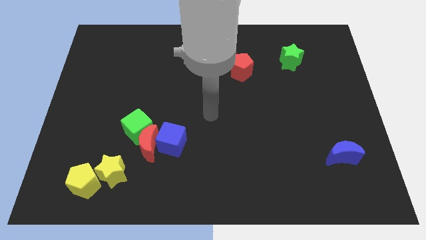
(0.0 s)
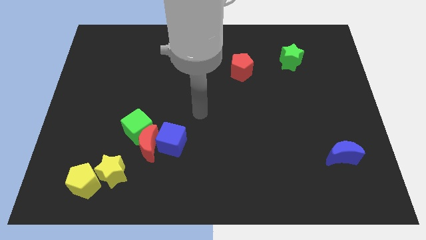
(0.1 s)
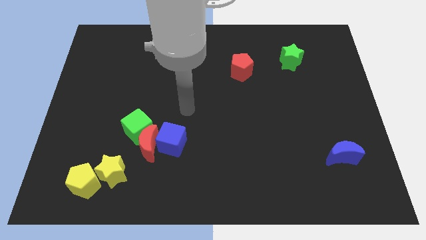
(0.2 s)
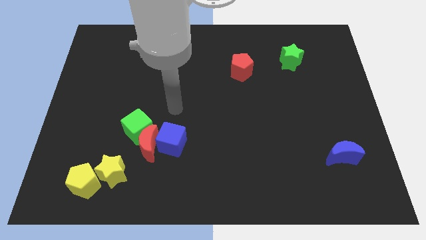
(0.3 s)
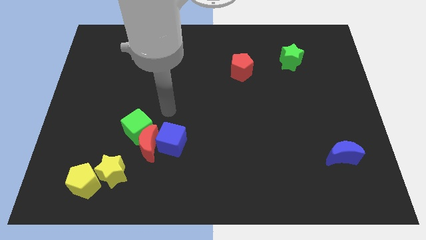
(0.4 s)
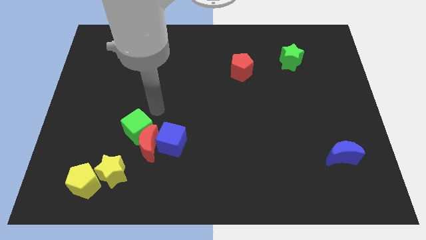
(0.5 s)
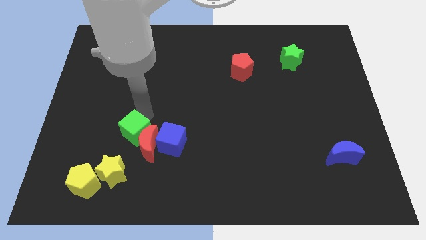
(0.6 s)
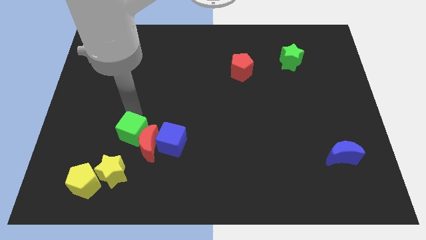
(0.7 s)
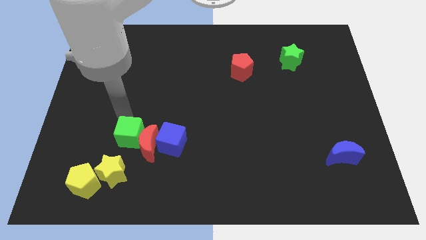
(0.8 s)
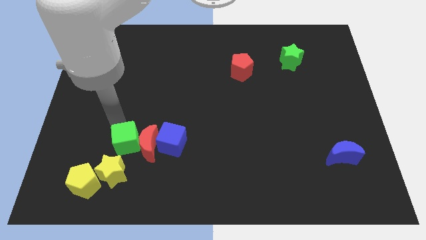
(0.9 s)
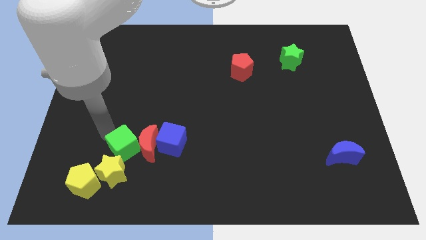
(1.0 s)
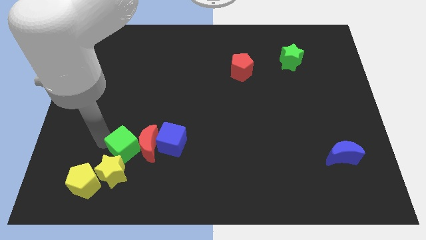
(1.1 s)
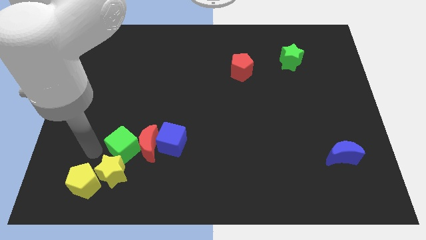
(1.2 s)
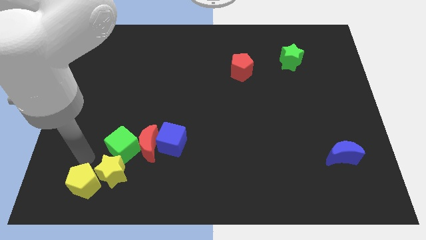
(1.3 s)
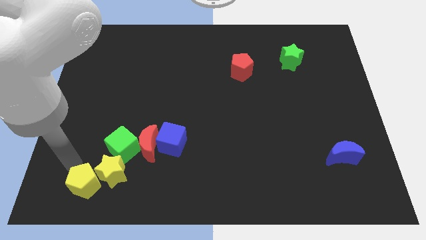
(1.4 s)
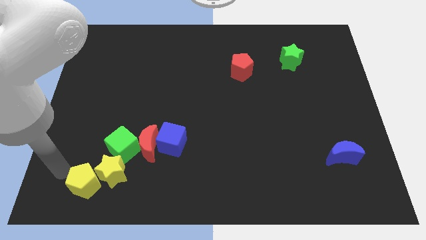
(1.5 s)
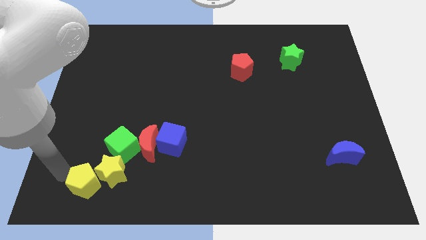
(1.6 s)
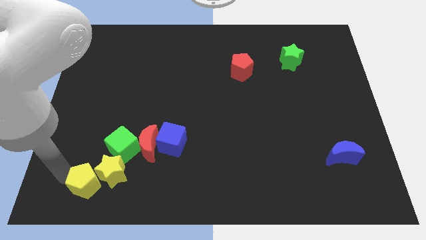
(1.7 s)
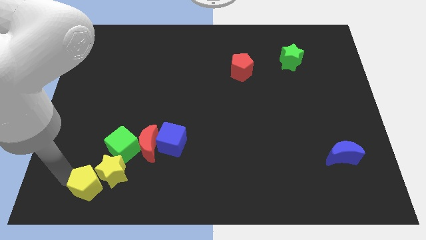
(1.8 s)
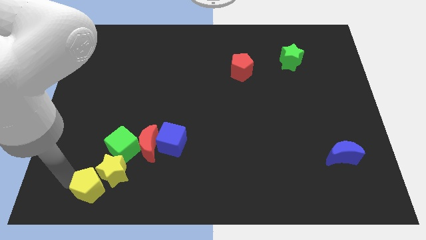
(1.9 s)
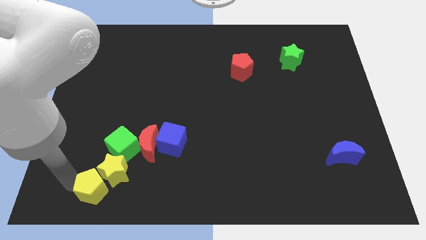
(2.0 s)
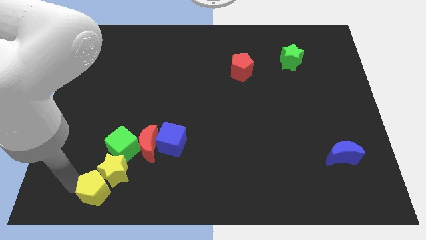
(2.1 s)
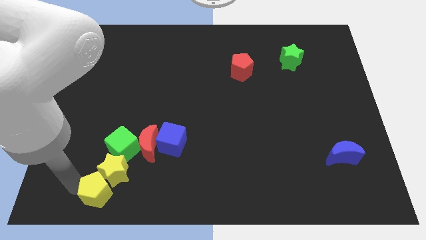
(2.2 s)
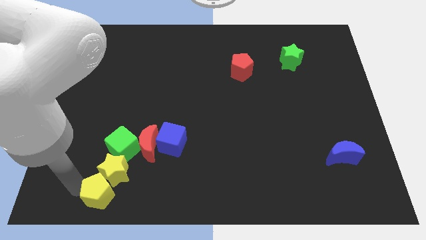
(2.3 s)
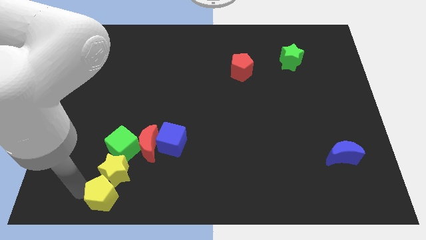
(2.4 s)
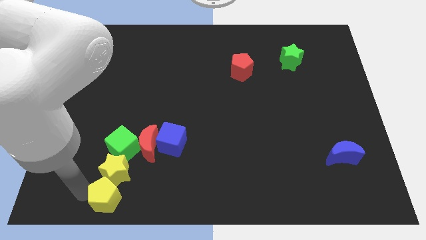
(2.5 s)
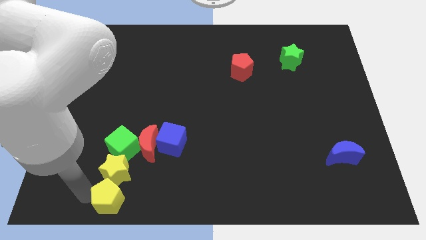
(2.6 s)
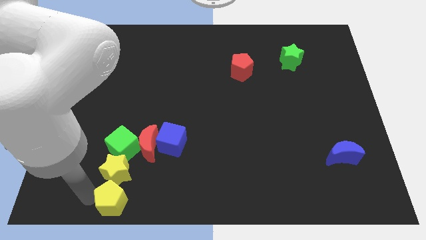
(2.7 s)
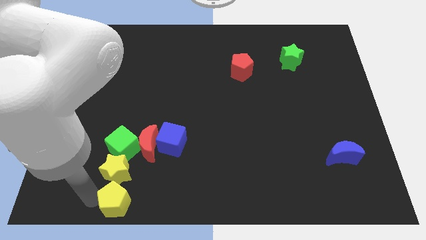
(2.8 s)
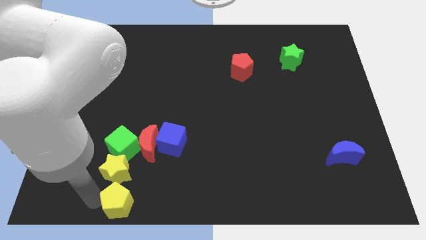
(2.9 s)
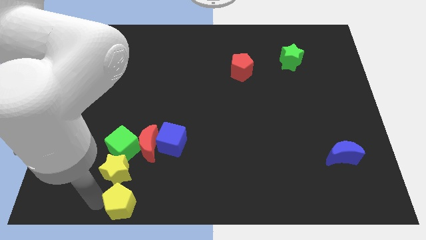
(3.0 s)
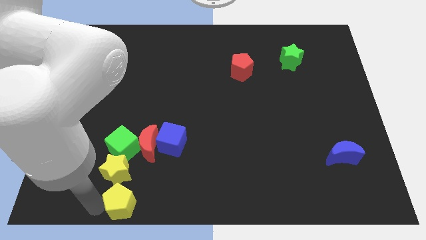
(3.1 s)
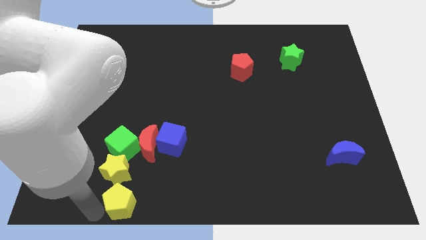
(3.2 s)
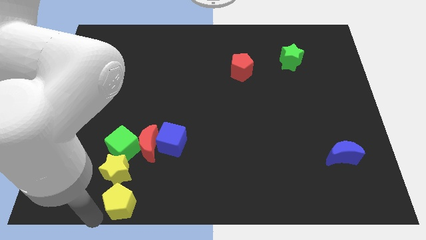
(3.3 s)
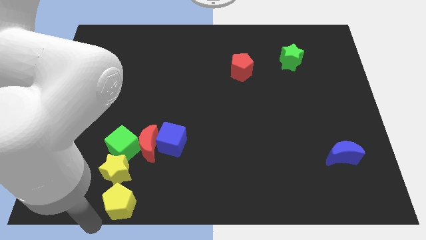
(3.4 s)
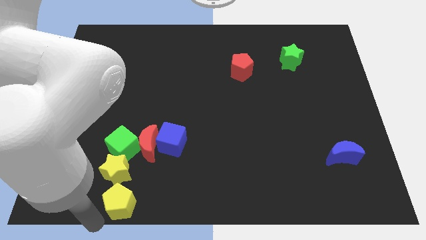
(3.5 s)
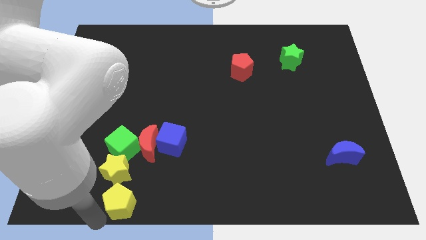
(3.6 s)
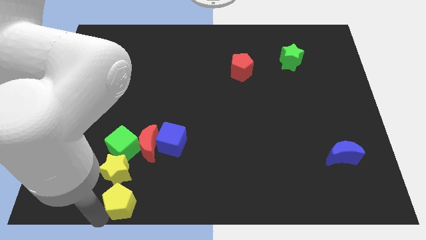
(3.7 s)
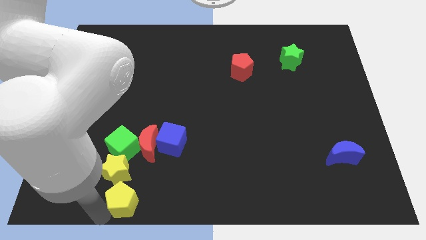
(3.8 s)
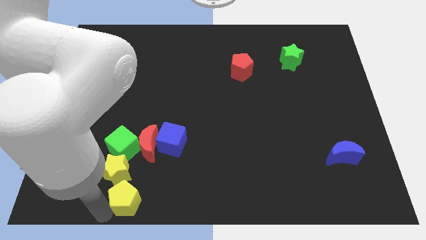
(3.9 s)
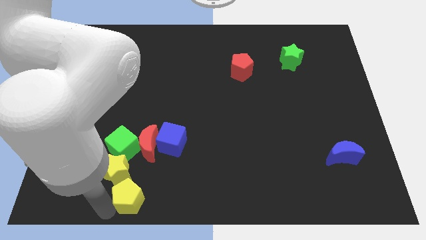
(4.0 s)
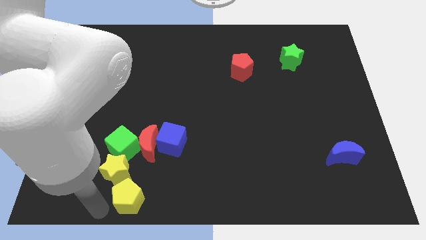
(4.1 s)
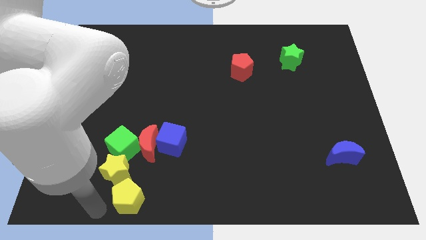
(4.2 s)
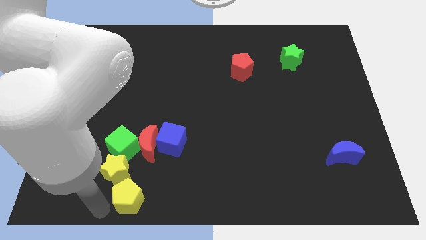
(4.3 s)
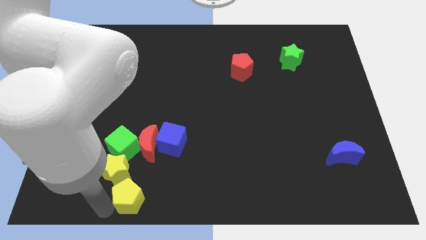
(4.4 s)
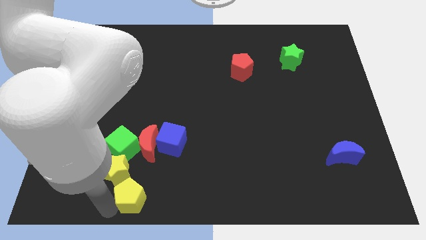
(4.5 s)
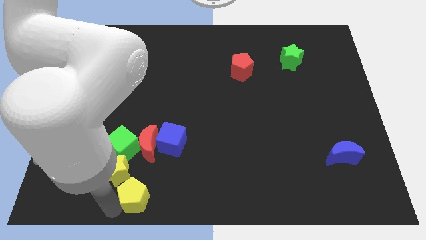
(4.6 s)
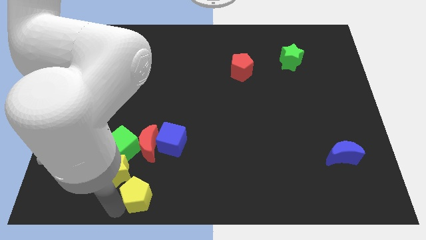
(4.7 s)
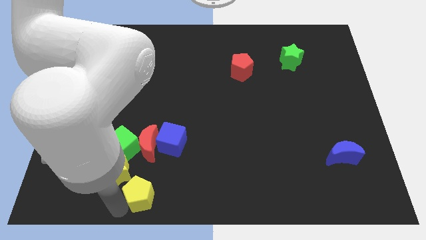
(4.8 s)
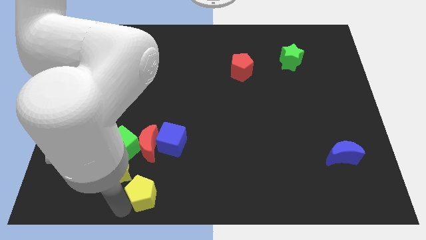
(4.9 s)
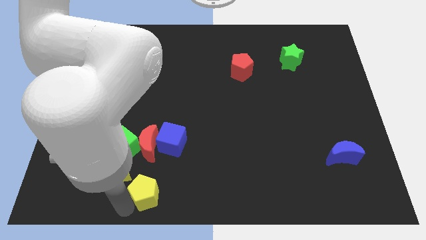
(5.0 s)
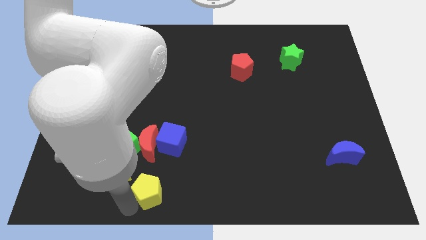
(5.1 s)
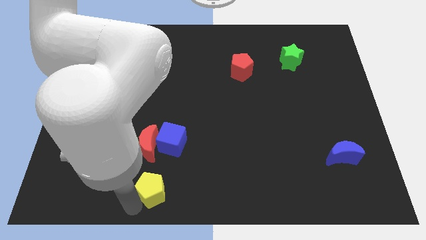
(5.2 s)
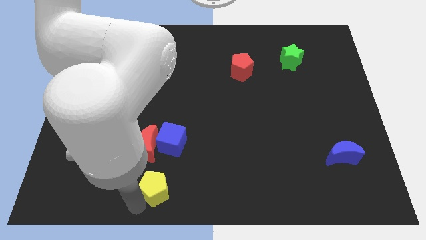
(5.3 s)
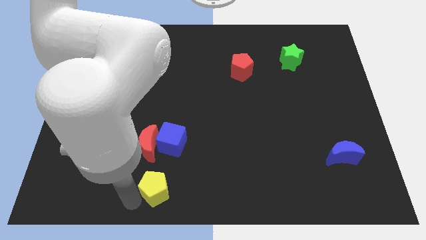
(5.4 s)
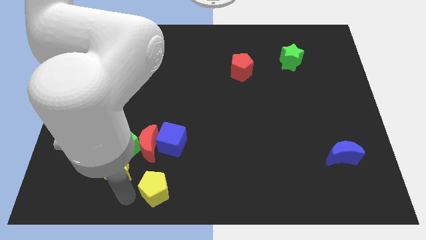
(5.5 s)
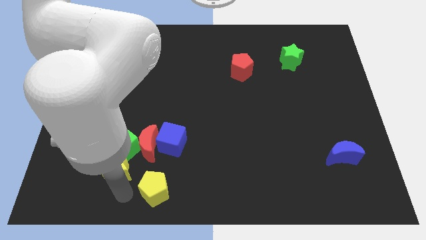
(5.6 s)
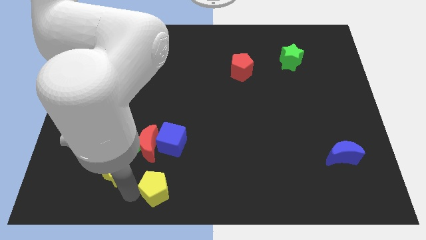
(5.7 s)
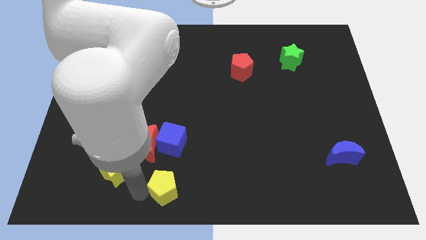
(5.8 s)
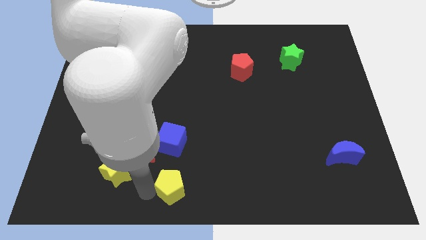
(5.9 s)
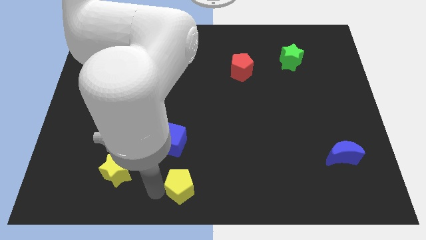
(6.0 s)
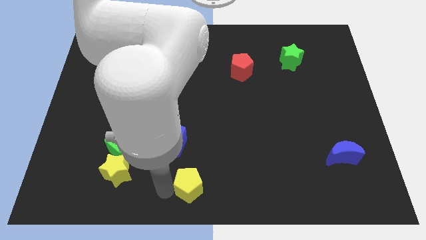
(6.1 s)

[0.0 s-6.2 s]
slide the yellow pentagon right

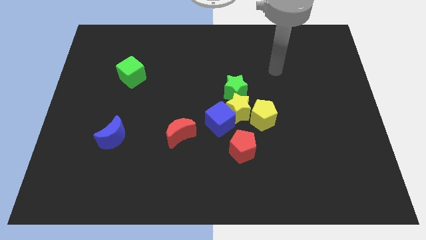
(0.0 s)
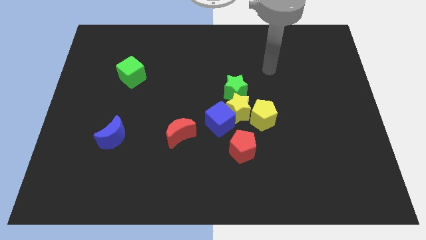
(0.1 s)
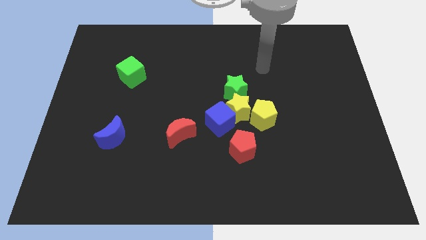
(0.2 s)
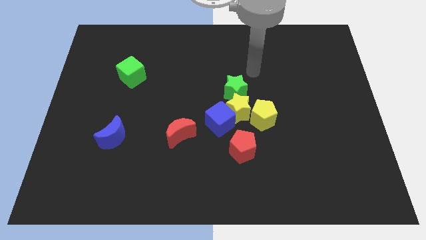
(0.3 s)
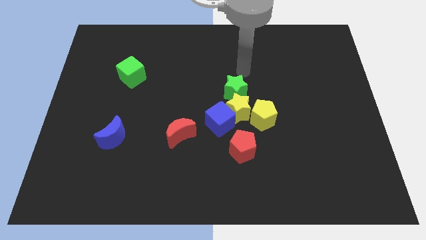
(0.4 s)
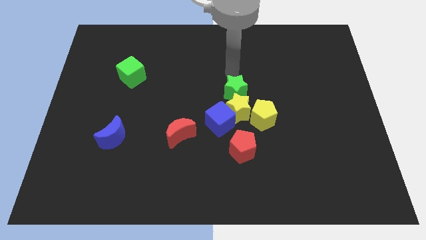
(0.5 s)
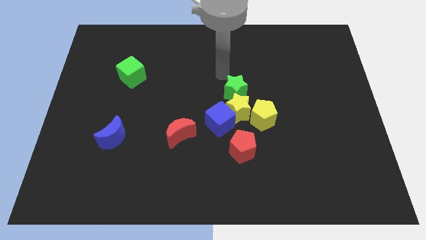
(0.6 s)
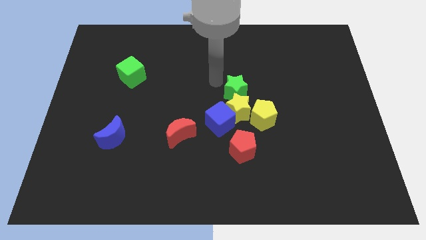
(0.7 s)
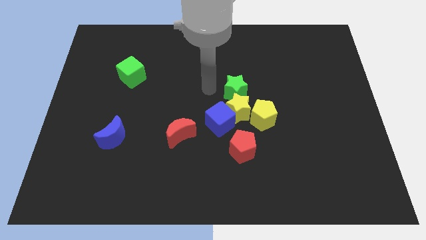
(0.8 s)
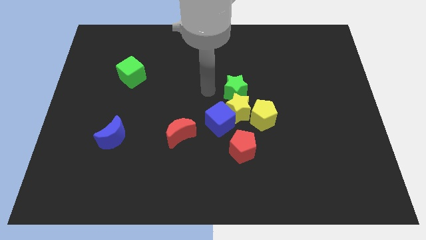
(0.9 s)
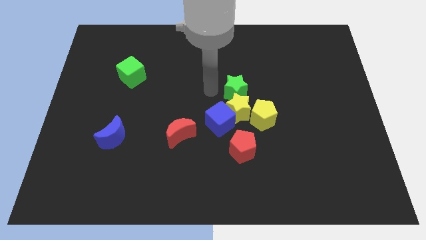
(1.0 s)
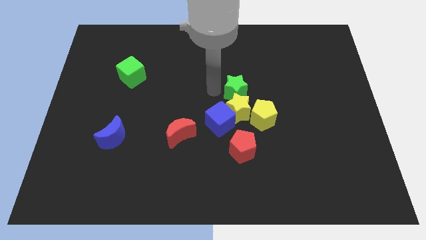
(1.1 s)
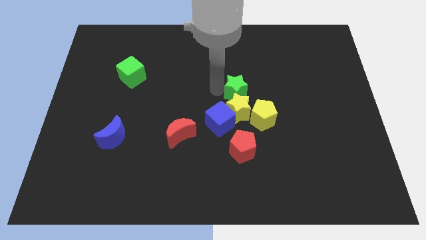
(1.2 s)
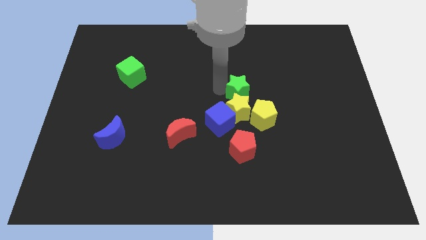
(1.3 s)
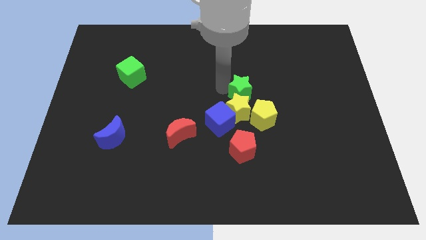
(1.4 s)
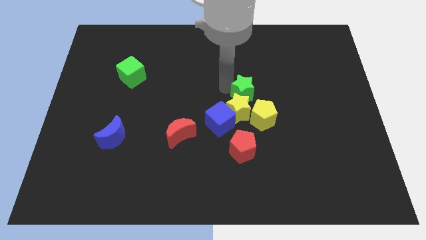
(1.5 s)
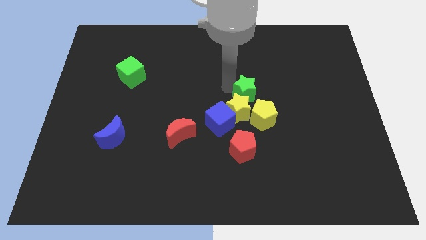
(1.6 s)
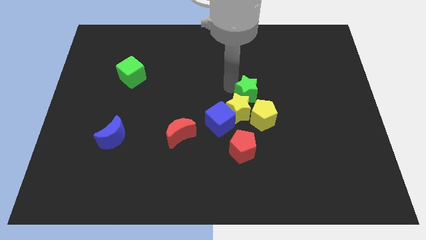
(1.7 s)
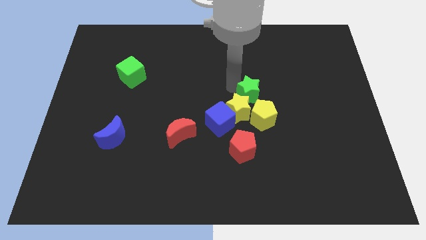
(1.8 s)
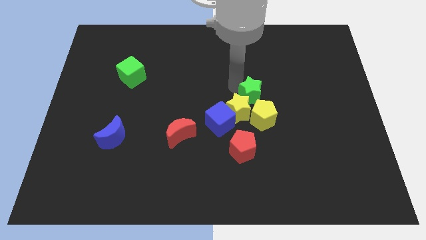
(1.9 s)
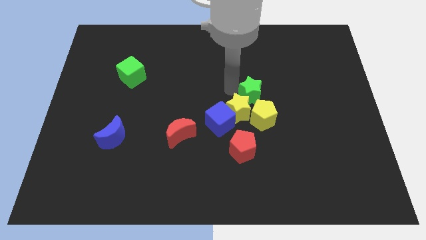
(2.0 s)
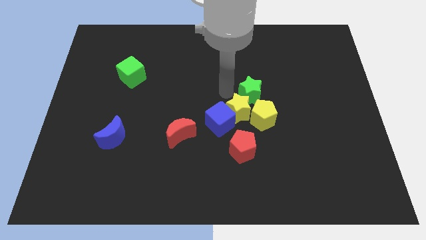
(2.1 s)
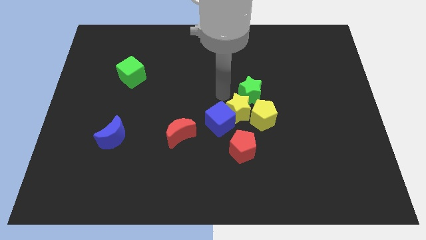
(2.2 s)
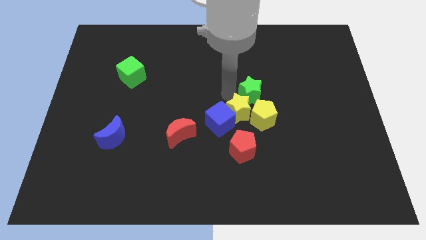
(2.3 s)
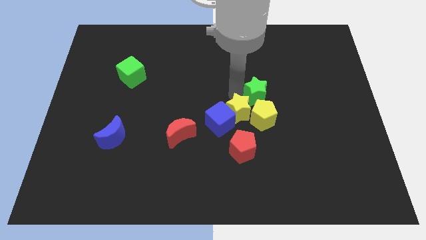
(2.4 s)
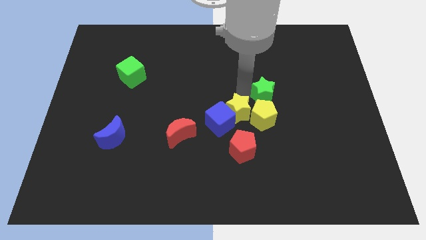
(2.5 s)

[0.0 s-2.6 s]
move the green star a little bit to the right
